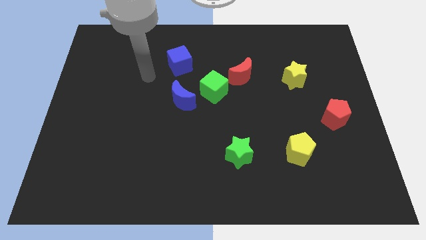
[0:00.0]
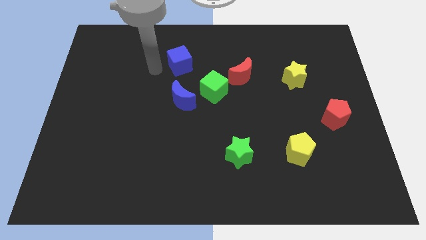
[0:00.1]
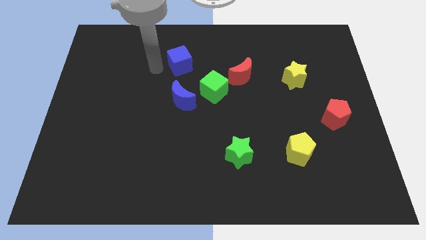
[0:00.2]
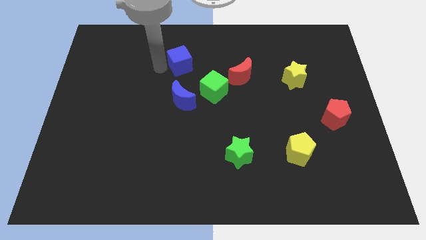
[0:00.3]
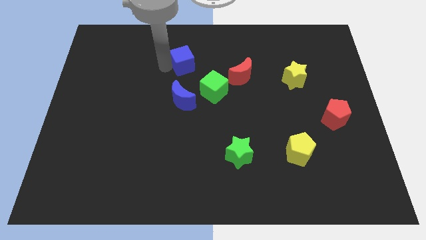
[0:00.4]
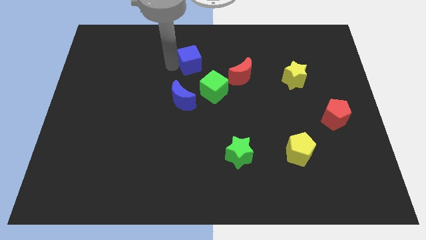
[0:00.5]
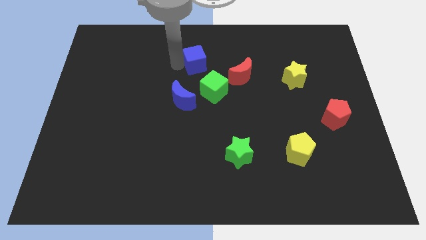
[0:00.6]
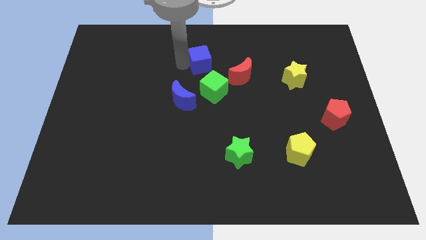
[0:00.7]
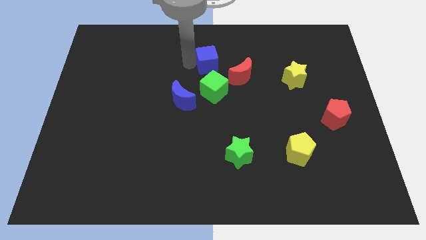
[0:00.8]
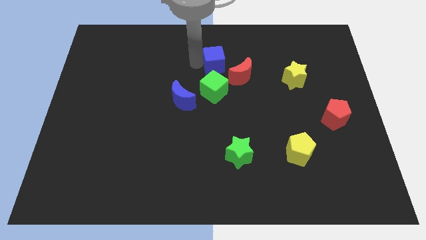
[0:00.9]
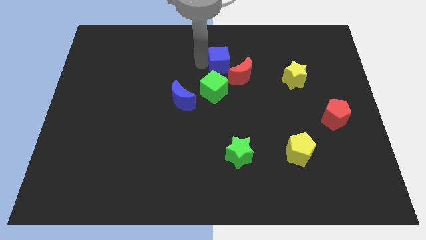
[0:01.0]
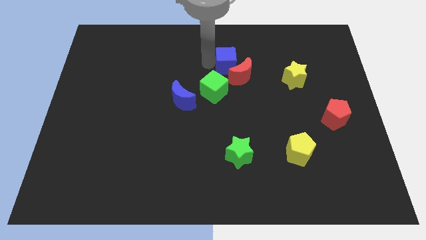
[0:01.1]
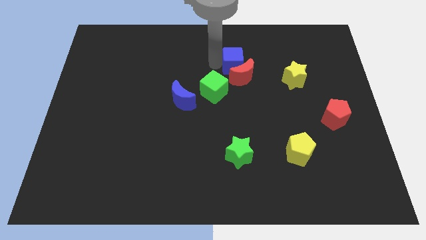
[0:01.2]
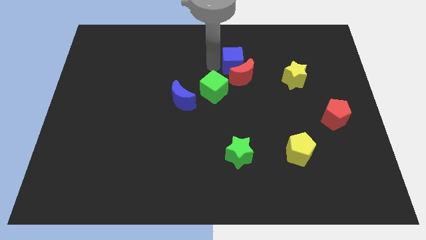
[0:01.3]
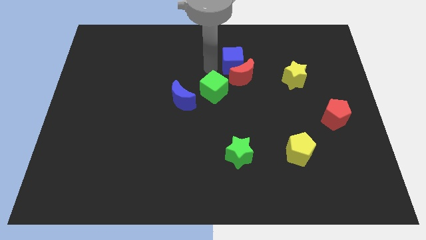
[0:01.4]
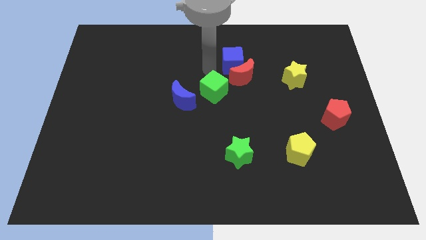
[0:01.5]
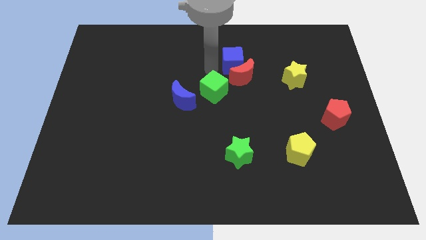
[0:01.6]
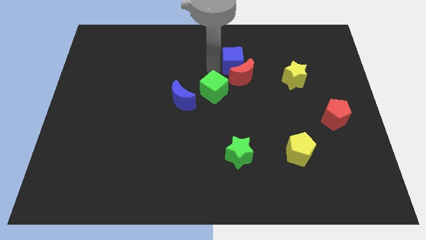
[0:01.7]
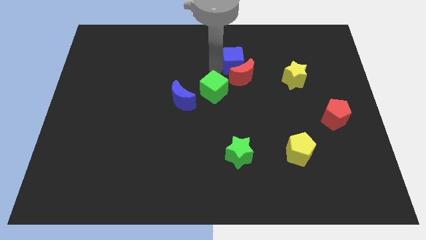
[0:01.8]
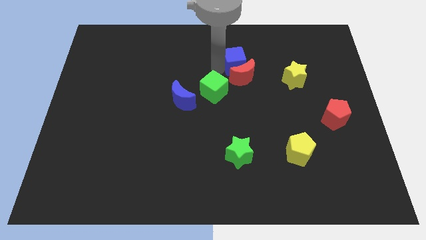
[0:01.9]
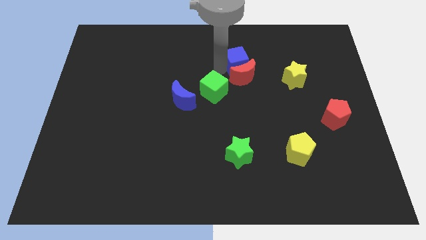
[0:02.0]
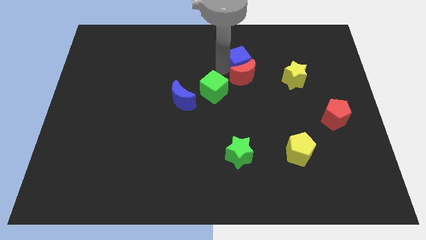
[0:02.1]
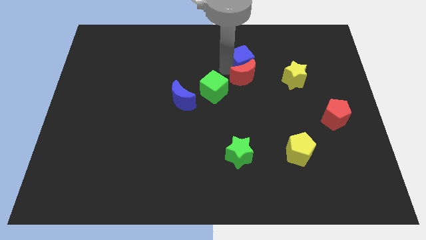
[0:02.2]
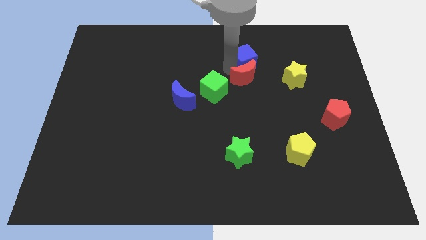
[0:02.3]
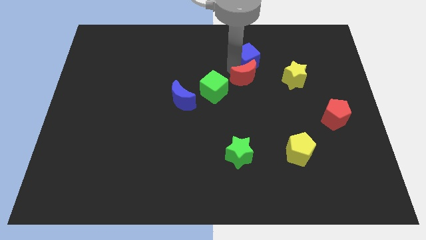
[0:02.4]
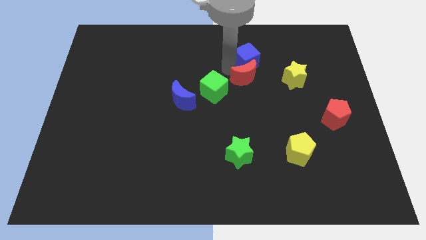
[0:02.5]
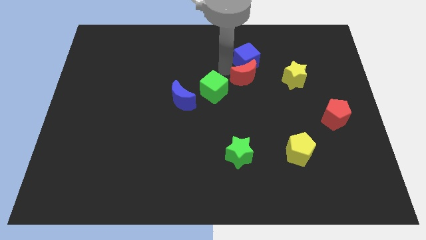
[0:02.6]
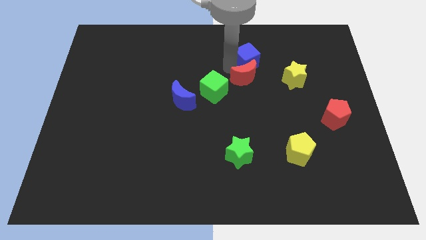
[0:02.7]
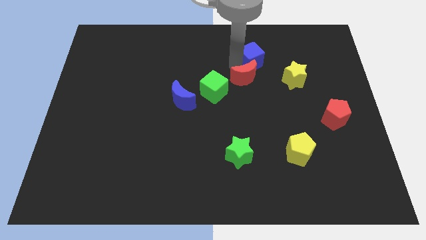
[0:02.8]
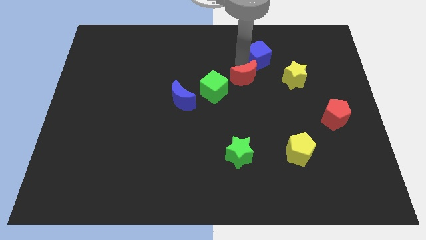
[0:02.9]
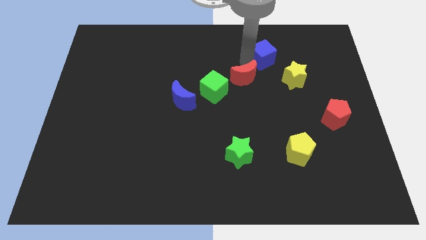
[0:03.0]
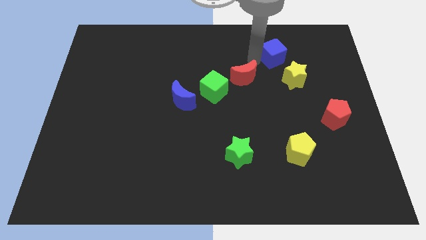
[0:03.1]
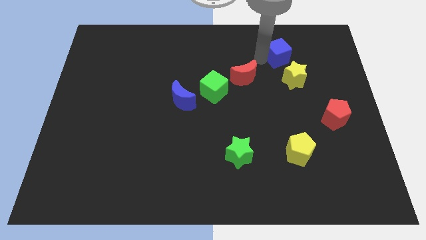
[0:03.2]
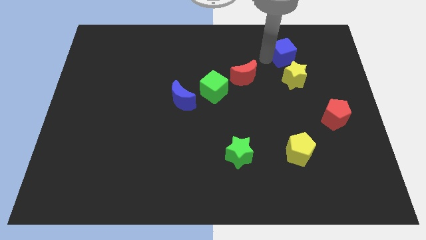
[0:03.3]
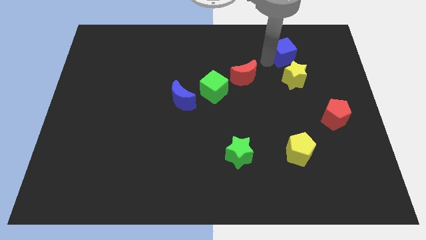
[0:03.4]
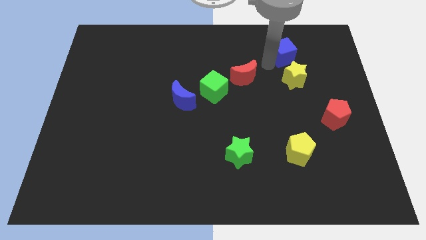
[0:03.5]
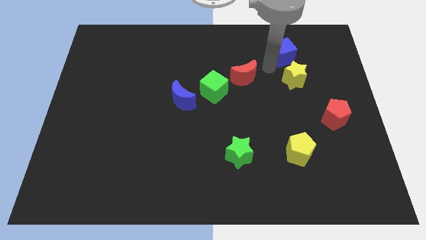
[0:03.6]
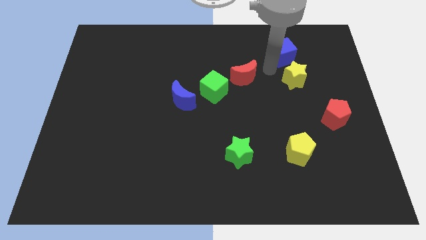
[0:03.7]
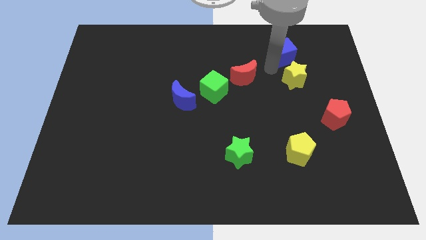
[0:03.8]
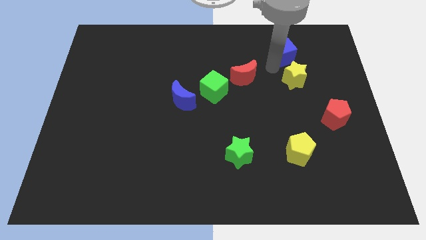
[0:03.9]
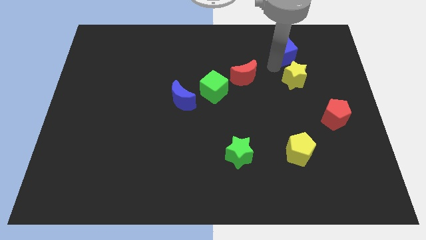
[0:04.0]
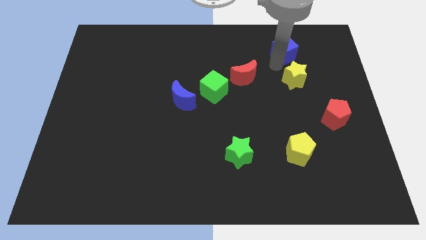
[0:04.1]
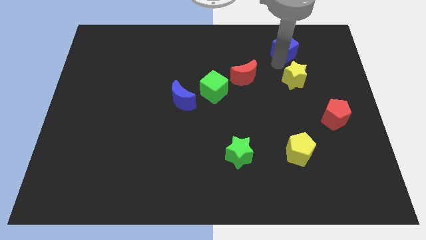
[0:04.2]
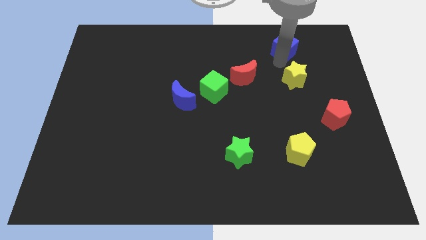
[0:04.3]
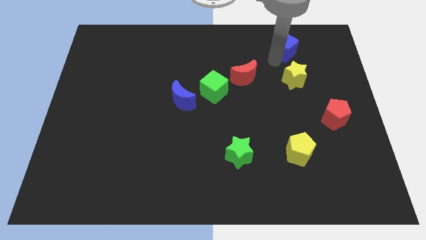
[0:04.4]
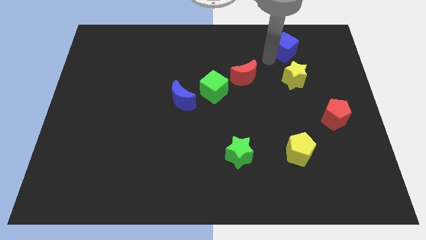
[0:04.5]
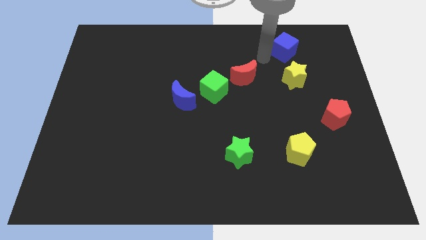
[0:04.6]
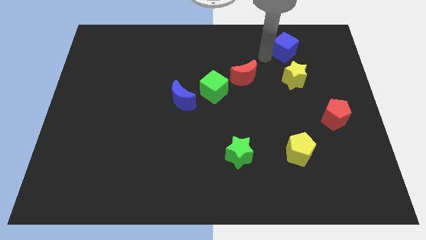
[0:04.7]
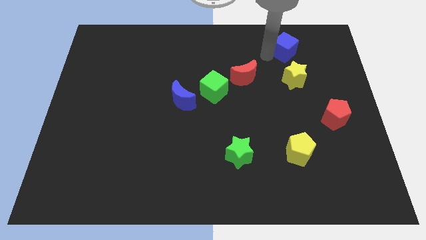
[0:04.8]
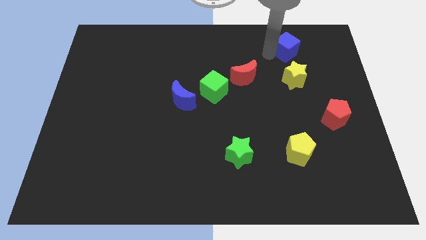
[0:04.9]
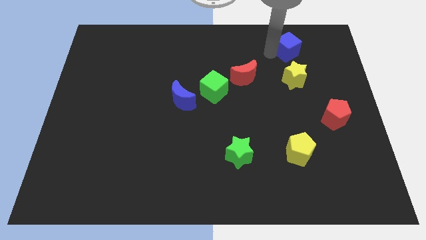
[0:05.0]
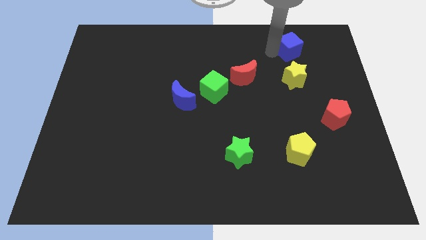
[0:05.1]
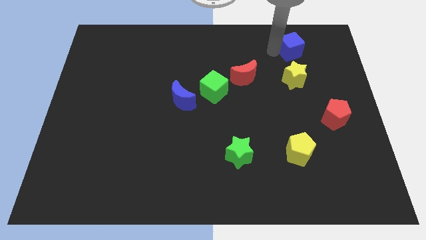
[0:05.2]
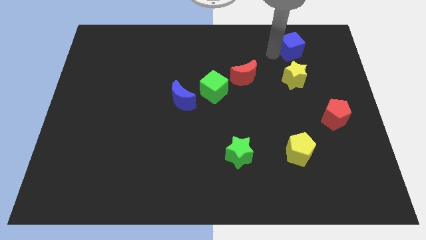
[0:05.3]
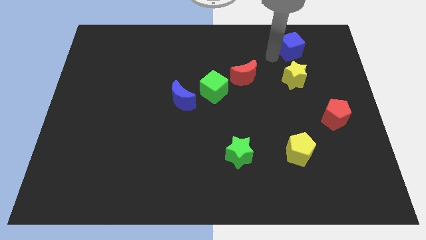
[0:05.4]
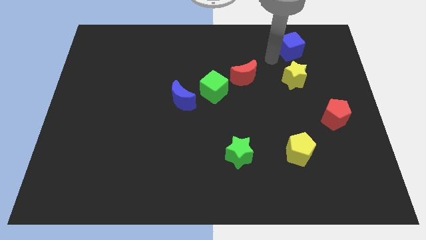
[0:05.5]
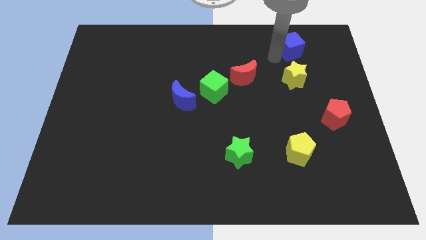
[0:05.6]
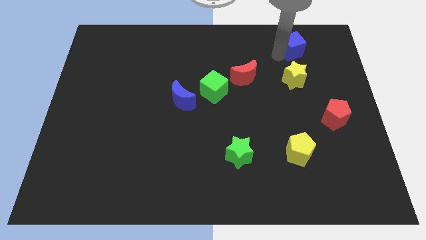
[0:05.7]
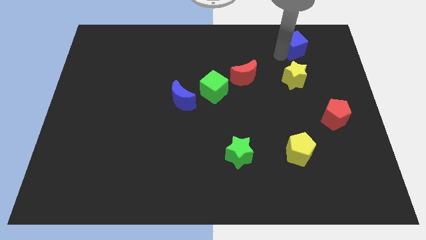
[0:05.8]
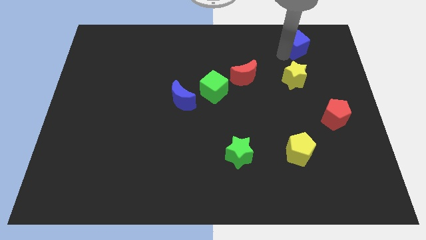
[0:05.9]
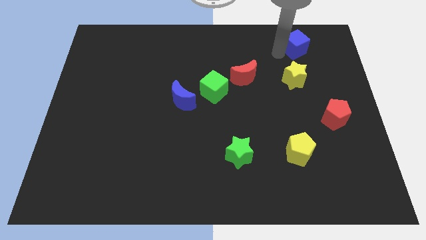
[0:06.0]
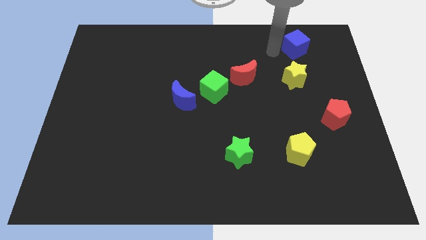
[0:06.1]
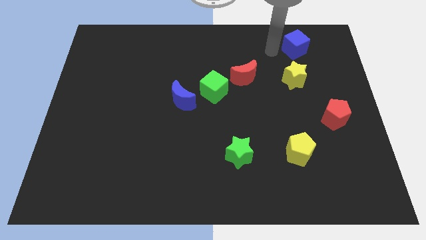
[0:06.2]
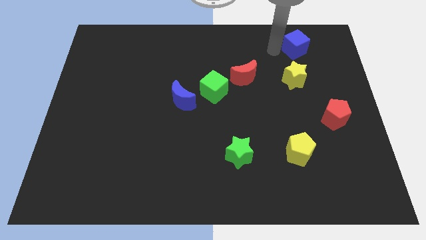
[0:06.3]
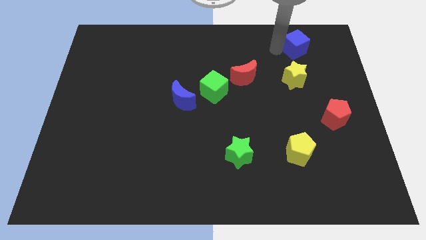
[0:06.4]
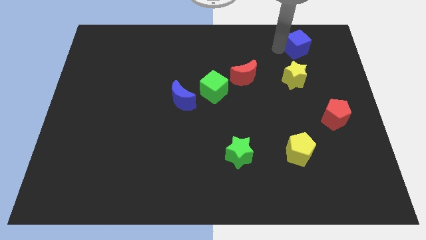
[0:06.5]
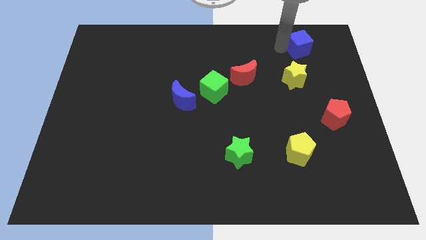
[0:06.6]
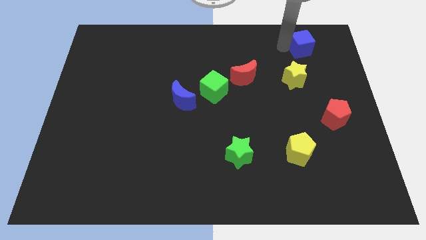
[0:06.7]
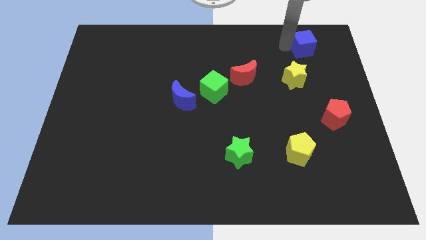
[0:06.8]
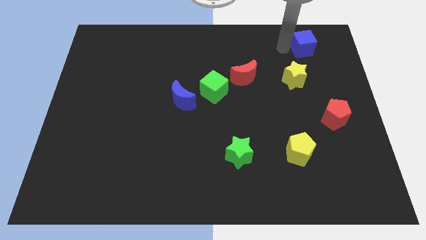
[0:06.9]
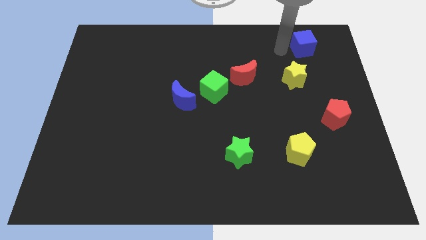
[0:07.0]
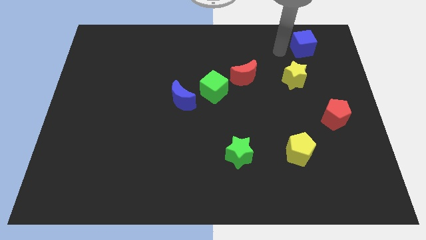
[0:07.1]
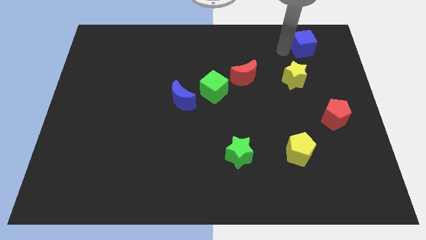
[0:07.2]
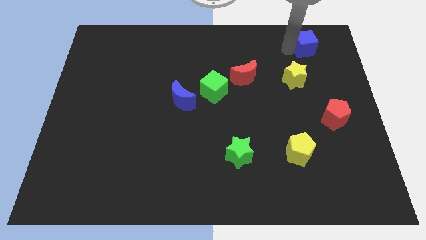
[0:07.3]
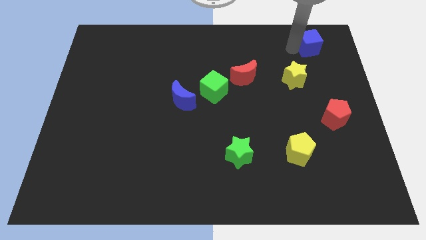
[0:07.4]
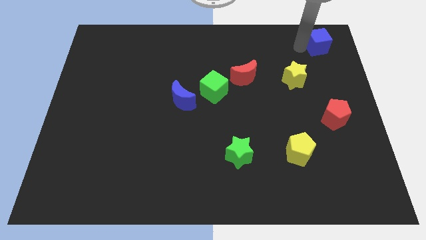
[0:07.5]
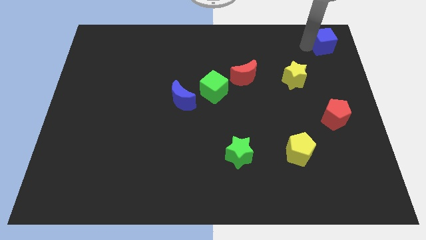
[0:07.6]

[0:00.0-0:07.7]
put the blue cube to the upper right corner
